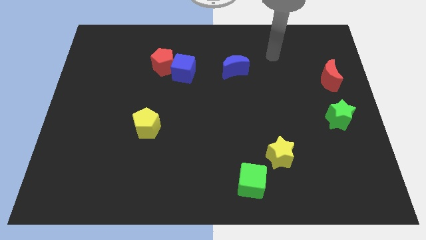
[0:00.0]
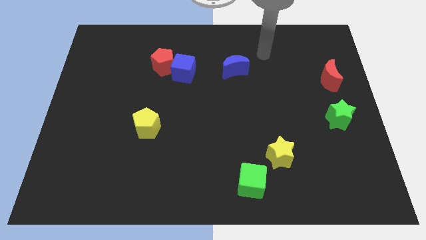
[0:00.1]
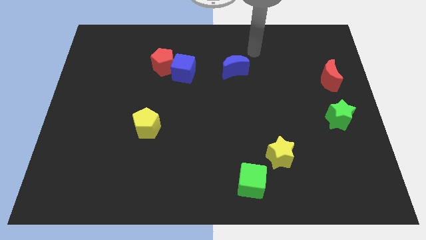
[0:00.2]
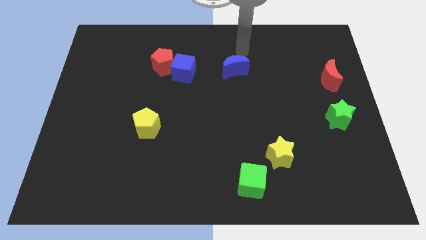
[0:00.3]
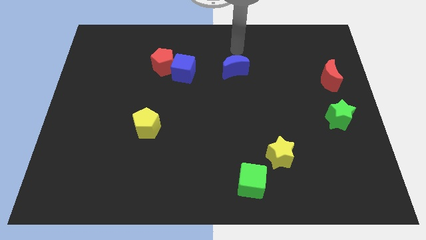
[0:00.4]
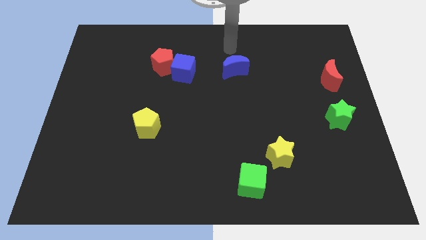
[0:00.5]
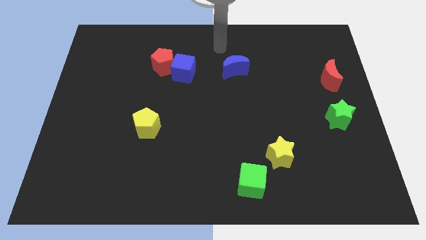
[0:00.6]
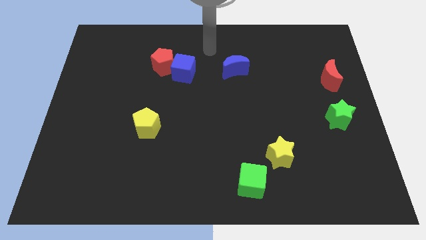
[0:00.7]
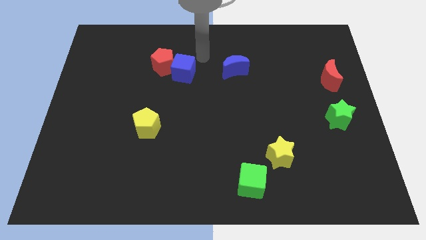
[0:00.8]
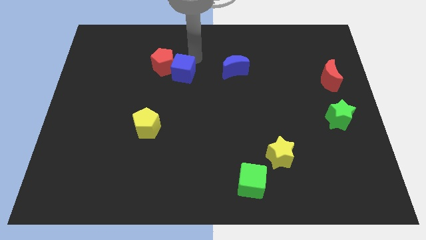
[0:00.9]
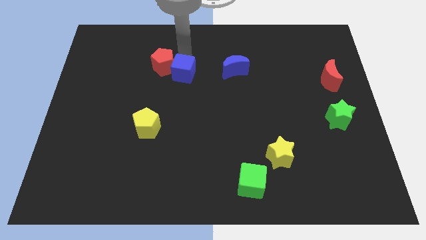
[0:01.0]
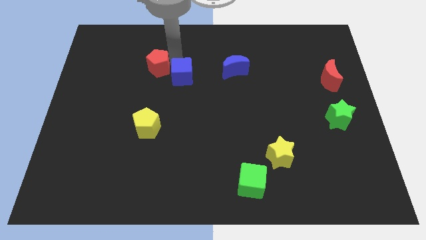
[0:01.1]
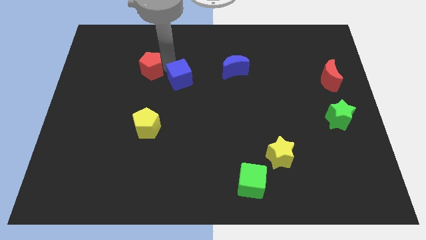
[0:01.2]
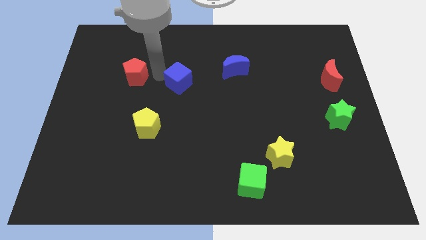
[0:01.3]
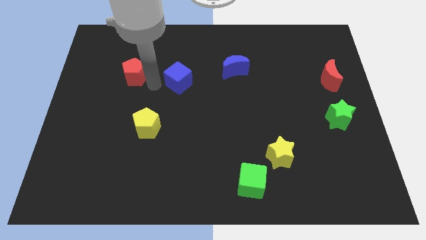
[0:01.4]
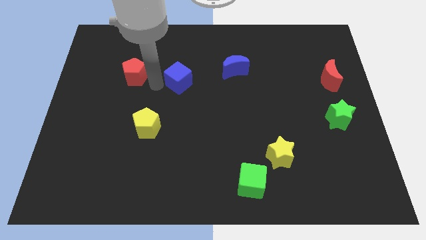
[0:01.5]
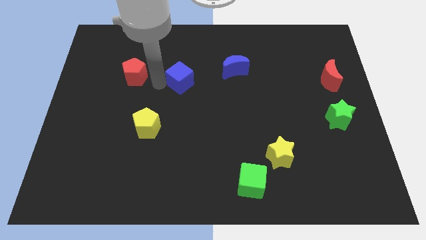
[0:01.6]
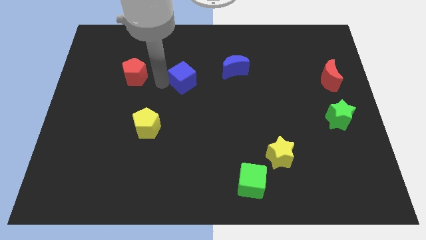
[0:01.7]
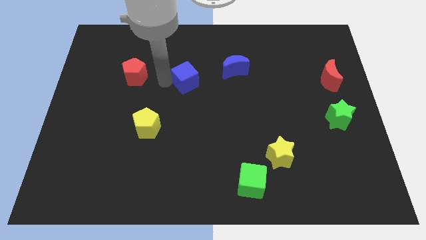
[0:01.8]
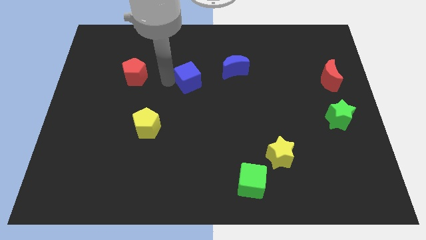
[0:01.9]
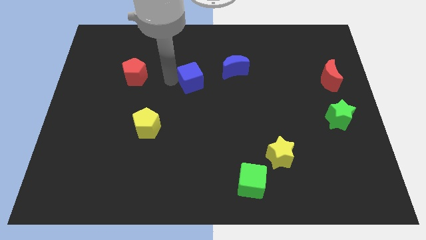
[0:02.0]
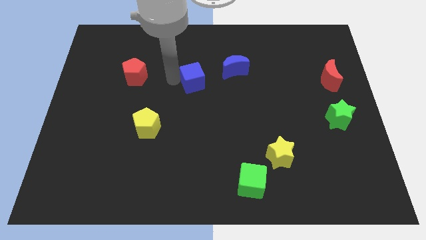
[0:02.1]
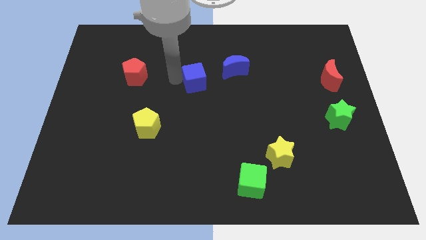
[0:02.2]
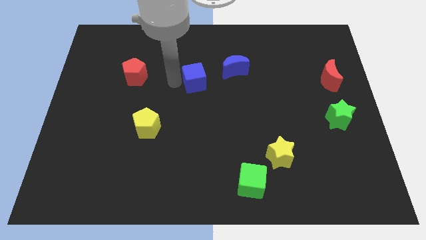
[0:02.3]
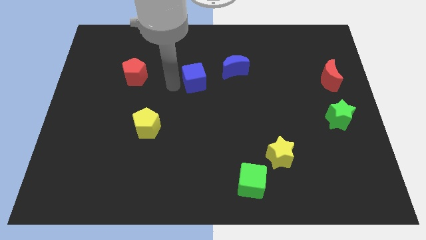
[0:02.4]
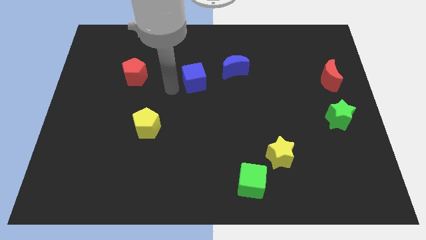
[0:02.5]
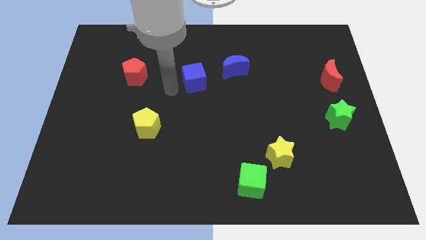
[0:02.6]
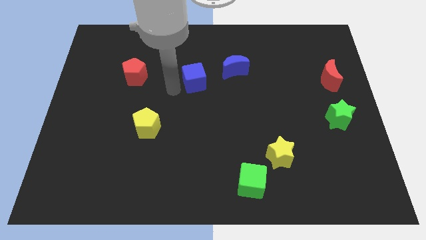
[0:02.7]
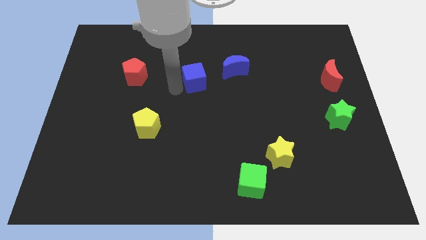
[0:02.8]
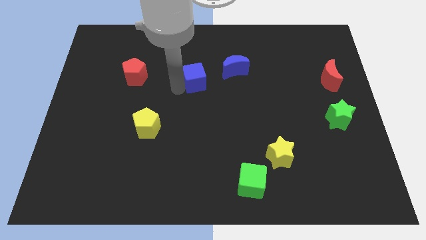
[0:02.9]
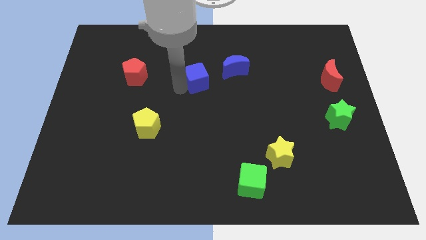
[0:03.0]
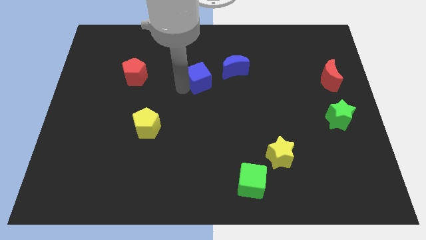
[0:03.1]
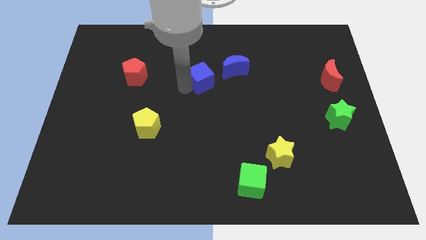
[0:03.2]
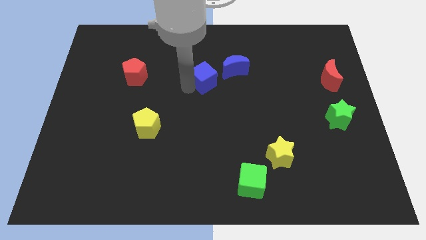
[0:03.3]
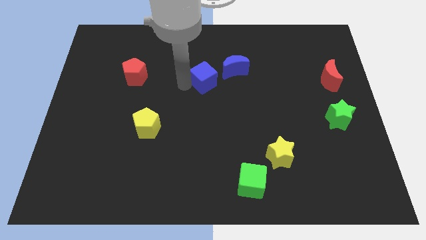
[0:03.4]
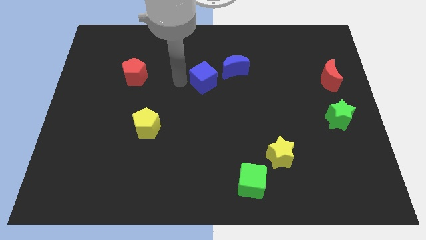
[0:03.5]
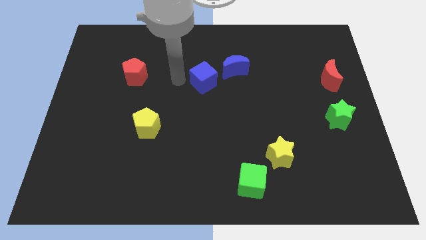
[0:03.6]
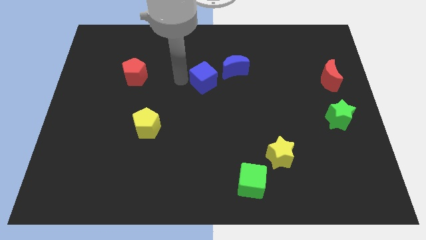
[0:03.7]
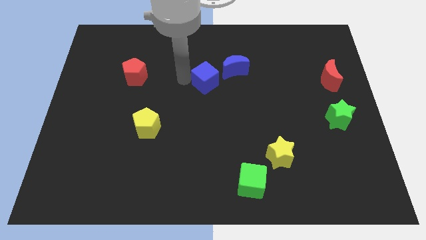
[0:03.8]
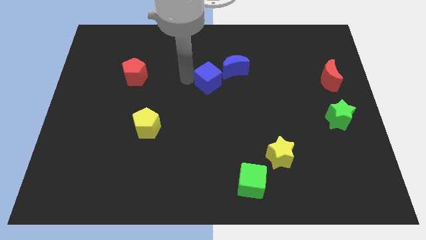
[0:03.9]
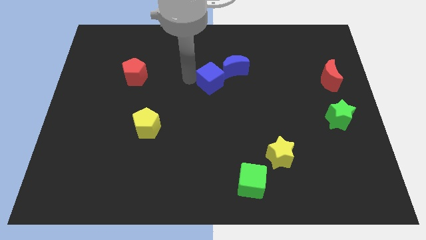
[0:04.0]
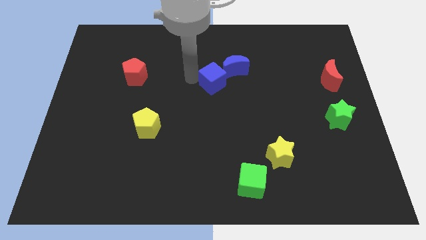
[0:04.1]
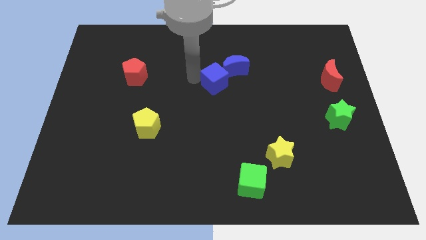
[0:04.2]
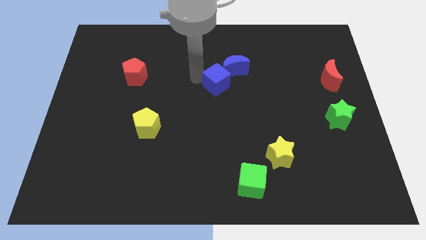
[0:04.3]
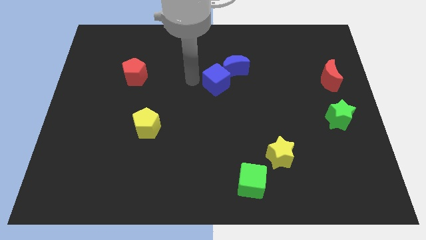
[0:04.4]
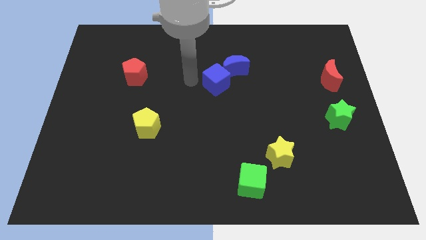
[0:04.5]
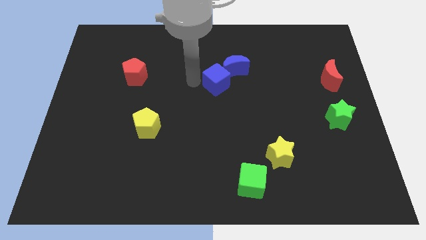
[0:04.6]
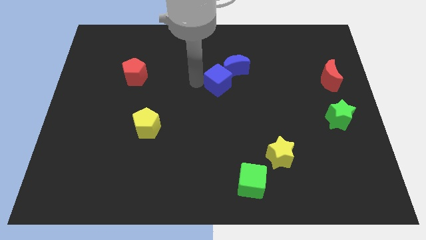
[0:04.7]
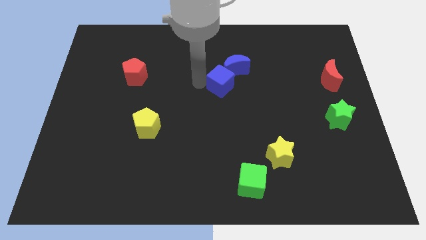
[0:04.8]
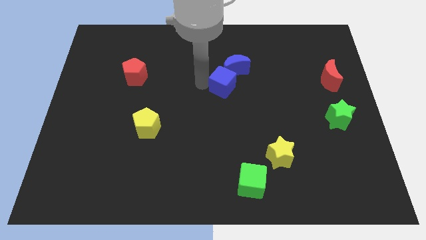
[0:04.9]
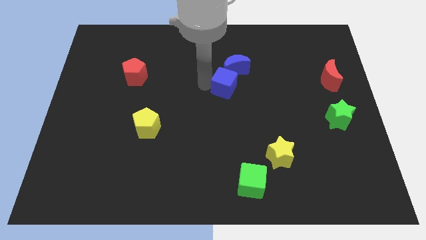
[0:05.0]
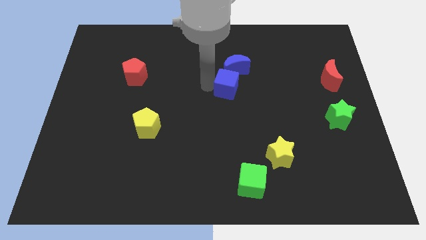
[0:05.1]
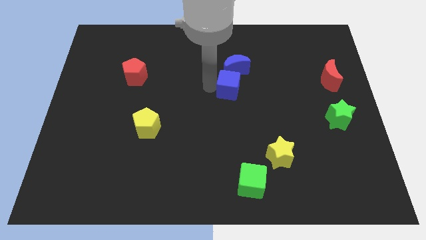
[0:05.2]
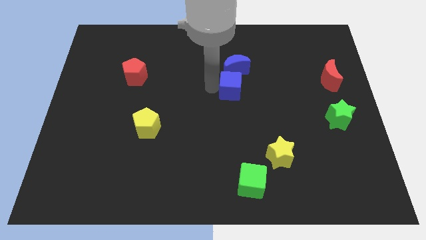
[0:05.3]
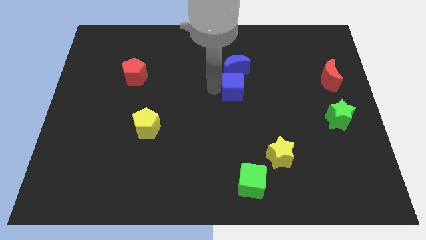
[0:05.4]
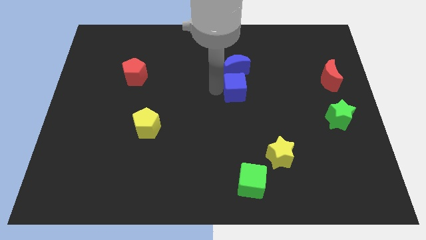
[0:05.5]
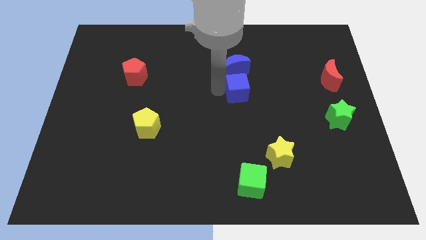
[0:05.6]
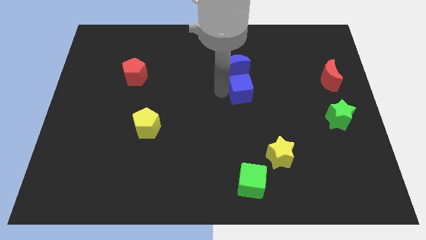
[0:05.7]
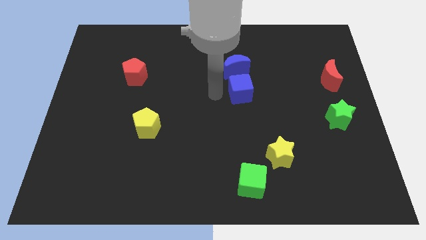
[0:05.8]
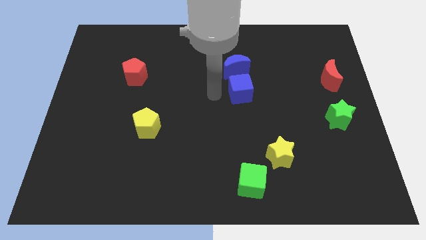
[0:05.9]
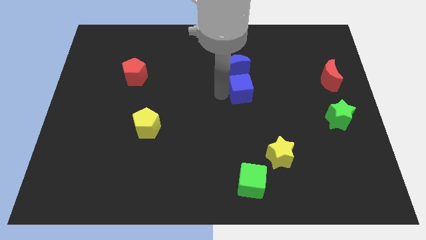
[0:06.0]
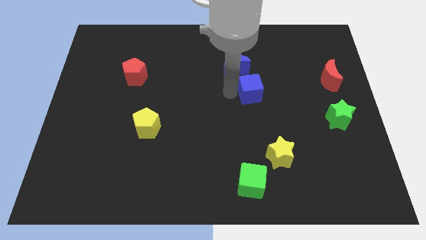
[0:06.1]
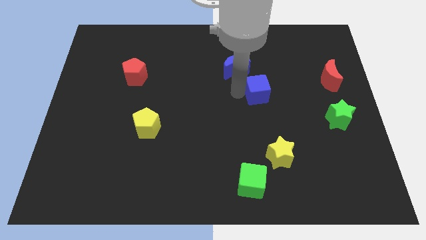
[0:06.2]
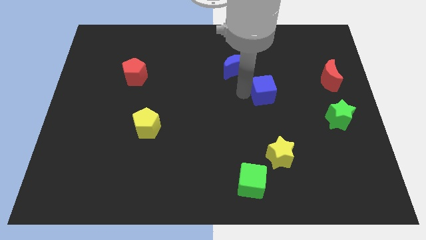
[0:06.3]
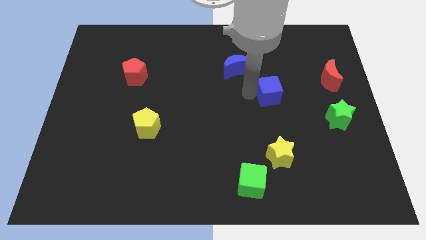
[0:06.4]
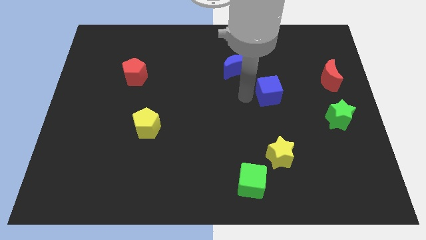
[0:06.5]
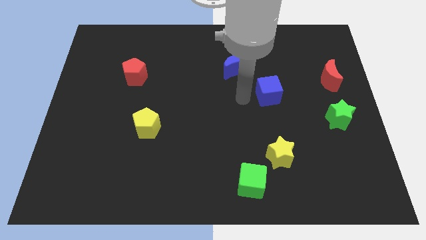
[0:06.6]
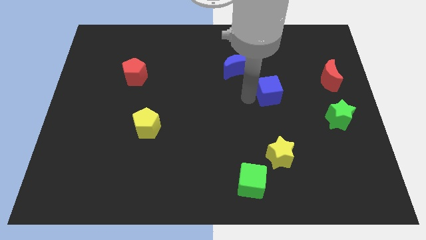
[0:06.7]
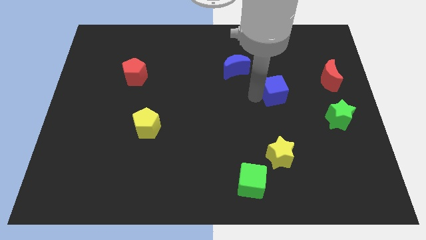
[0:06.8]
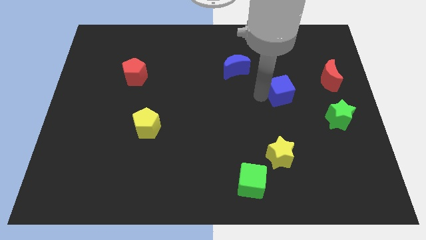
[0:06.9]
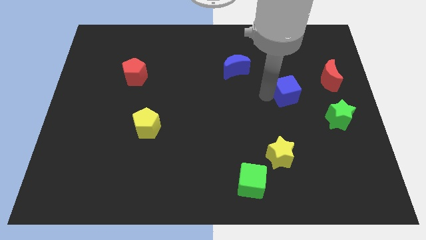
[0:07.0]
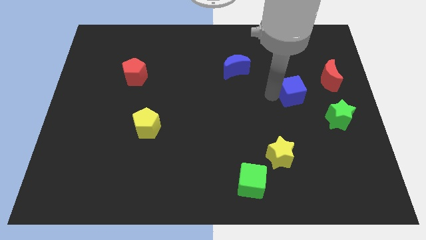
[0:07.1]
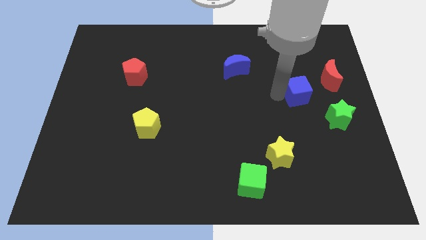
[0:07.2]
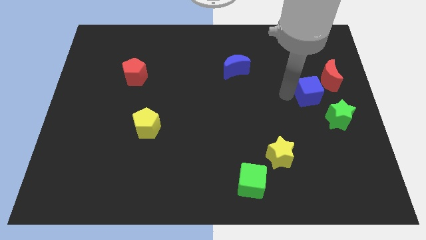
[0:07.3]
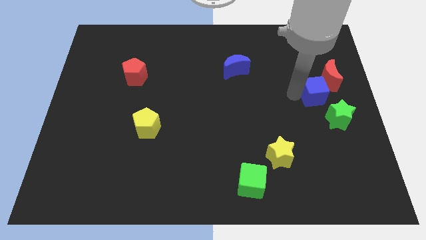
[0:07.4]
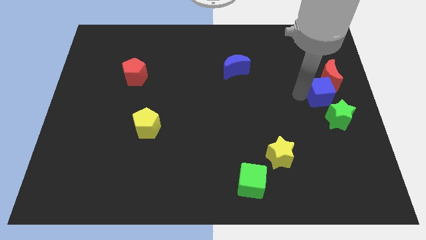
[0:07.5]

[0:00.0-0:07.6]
slide the blue cube to the right side of the board
